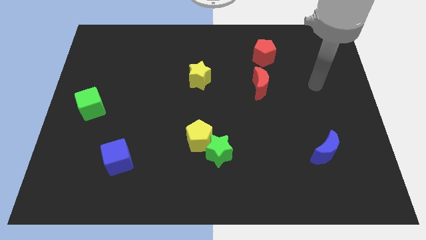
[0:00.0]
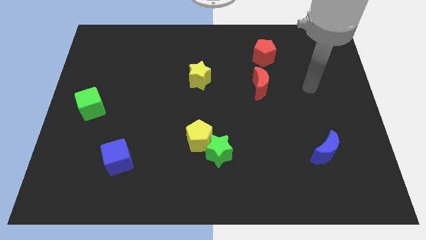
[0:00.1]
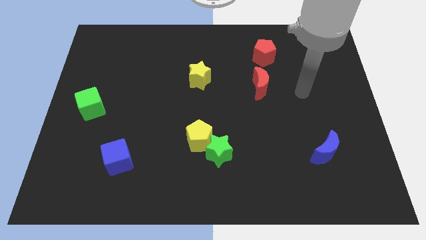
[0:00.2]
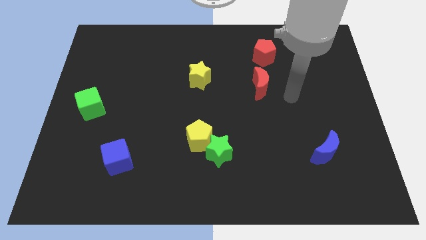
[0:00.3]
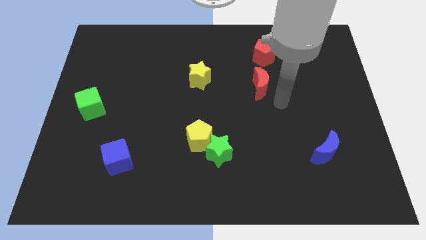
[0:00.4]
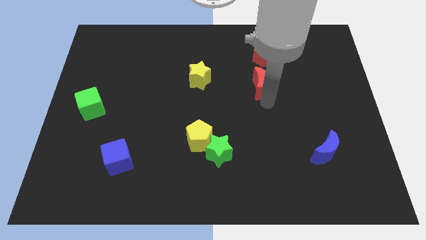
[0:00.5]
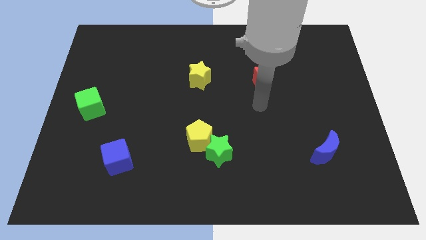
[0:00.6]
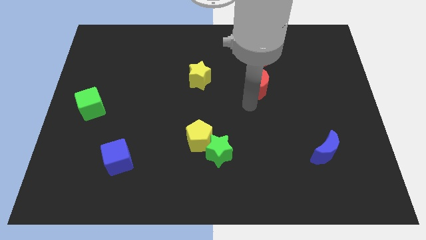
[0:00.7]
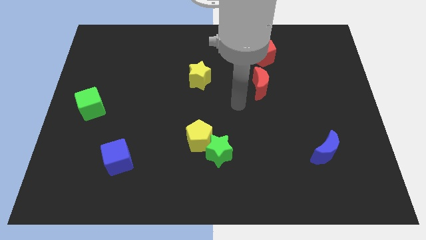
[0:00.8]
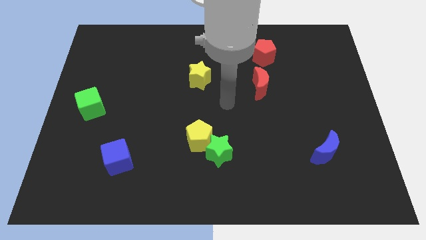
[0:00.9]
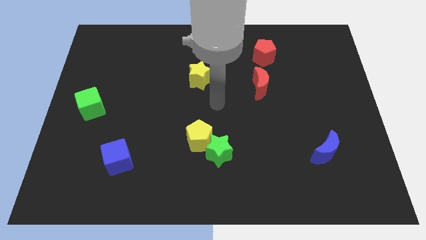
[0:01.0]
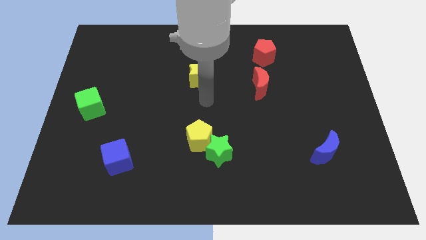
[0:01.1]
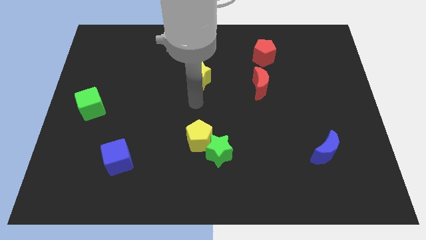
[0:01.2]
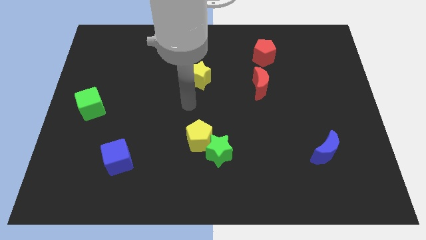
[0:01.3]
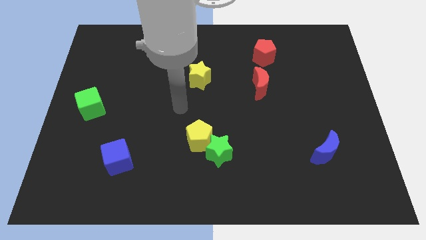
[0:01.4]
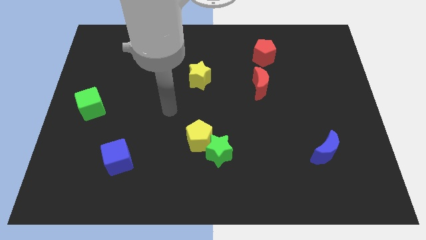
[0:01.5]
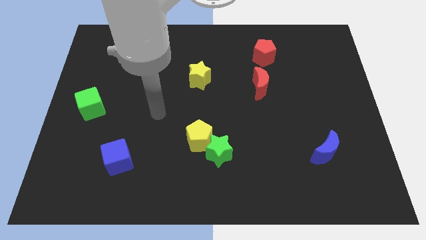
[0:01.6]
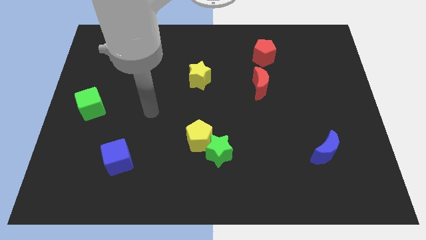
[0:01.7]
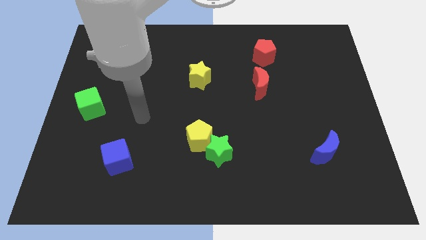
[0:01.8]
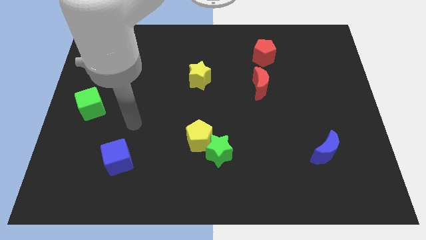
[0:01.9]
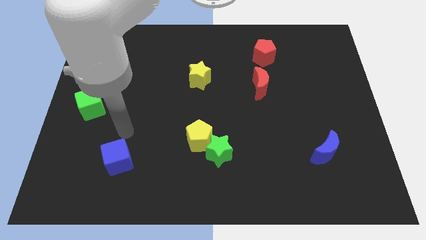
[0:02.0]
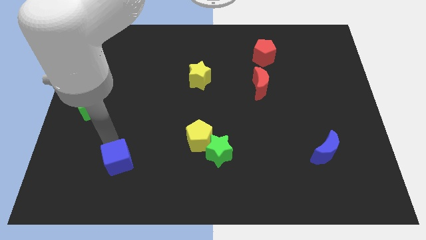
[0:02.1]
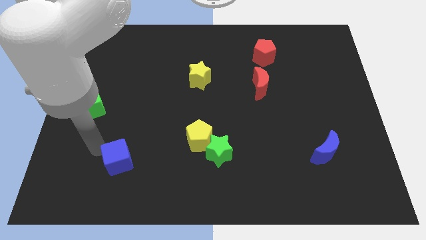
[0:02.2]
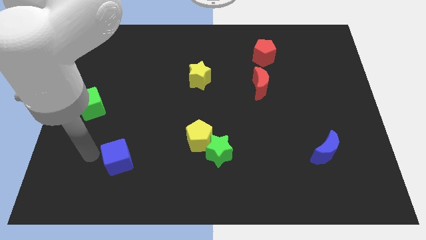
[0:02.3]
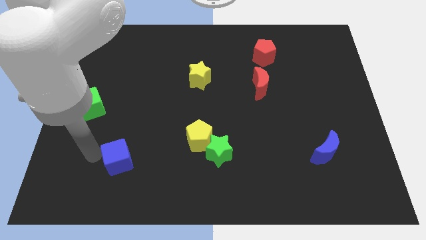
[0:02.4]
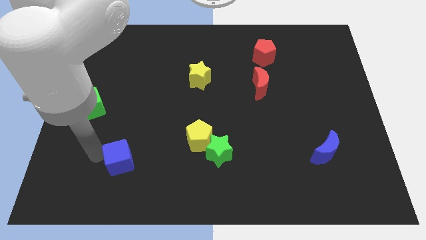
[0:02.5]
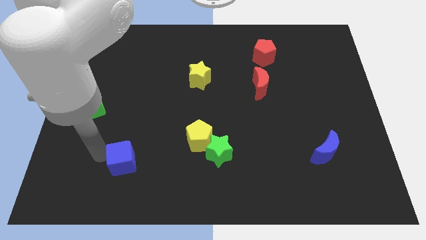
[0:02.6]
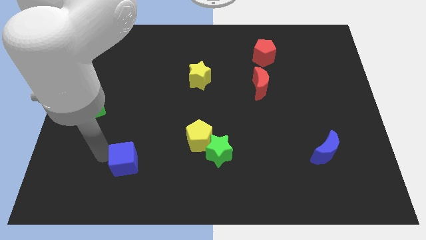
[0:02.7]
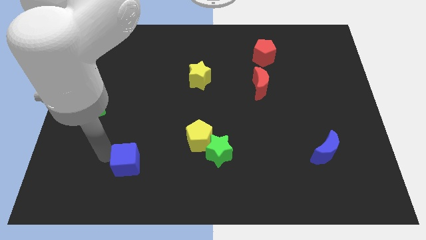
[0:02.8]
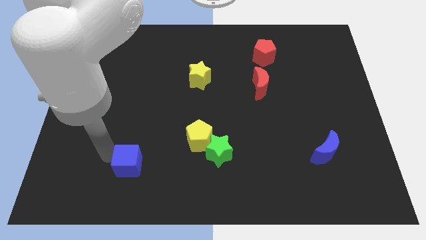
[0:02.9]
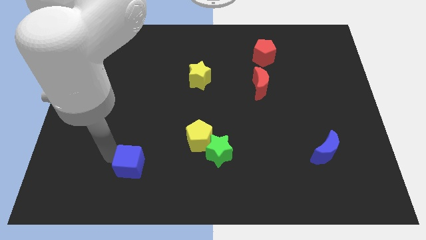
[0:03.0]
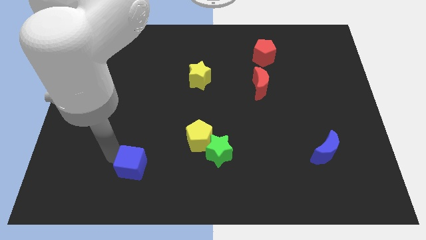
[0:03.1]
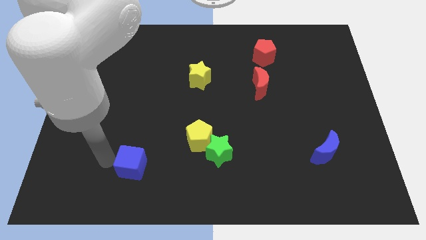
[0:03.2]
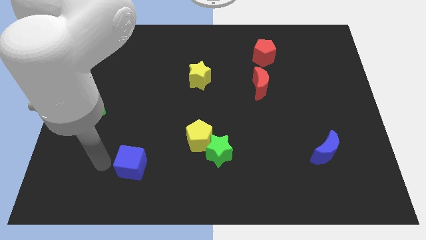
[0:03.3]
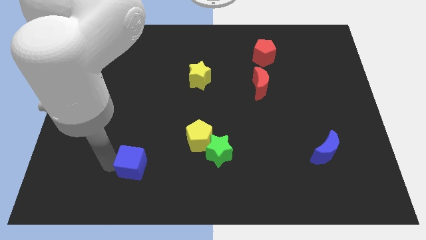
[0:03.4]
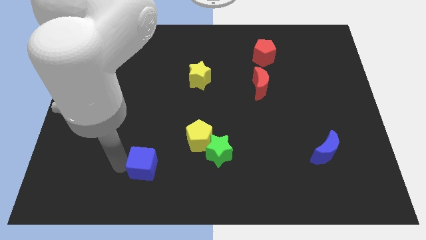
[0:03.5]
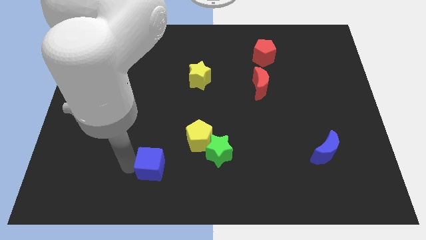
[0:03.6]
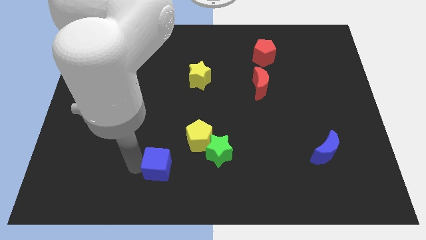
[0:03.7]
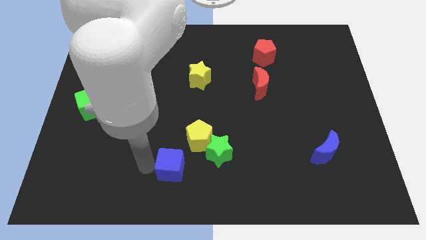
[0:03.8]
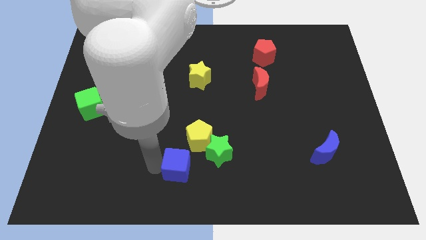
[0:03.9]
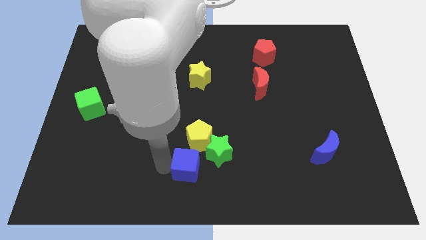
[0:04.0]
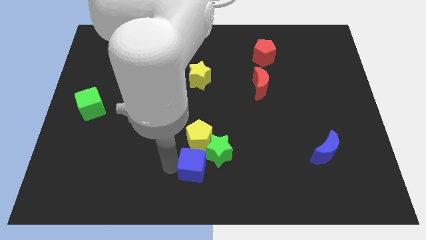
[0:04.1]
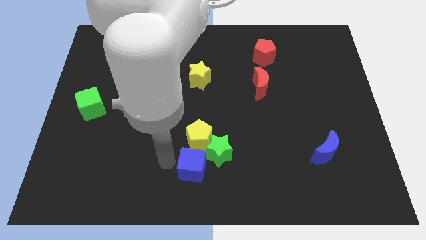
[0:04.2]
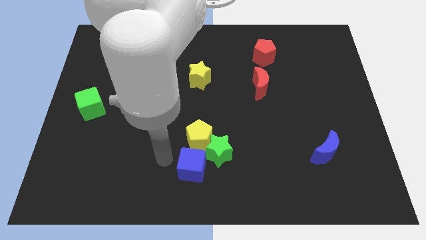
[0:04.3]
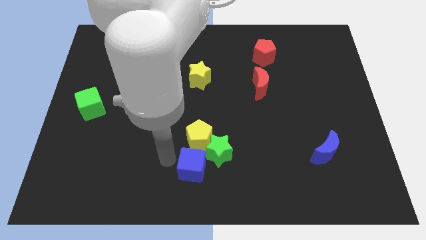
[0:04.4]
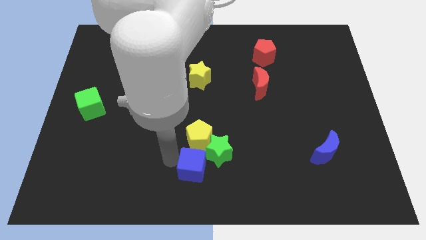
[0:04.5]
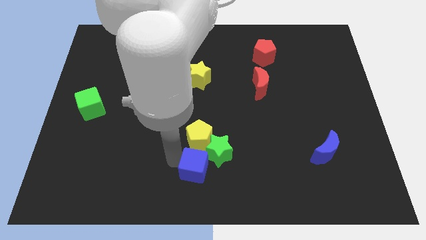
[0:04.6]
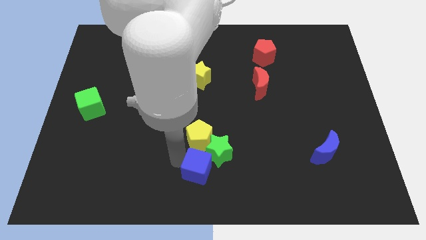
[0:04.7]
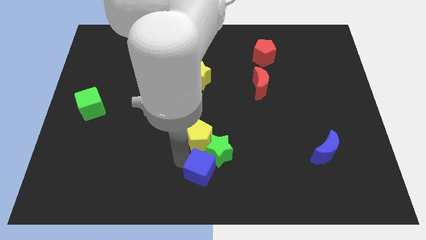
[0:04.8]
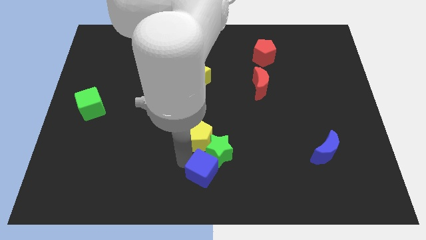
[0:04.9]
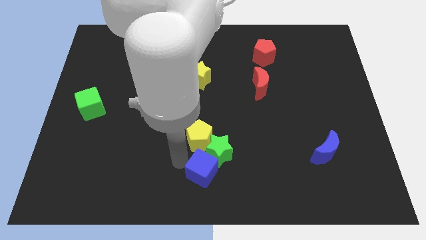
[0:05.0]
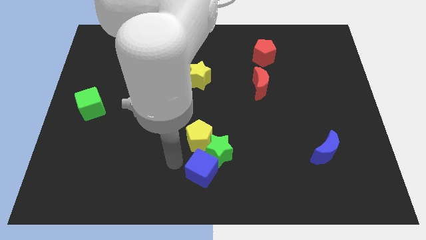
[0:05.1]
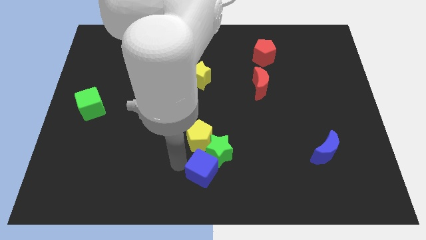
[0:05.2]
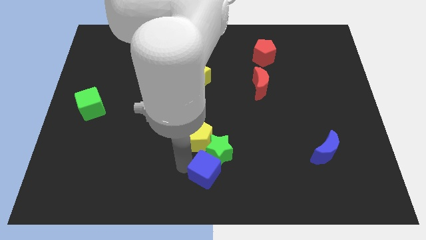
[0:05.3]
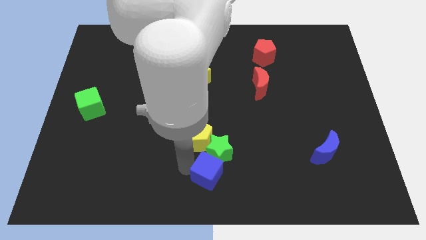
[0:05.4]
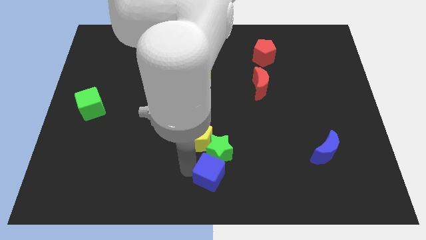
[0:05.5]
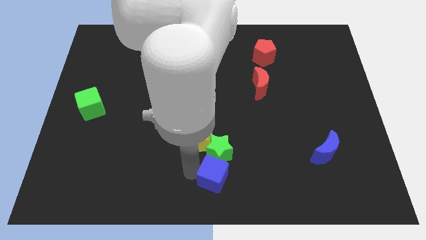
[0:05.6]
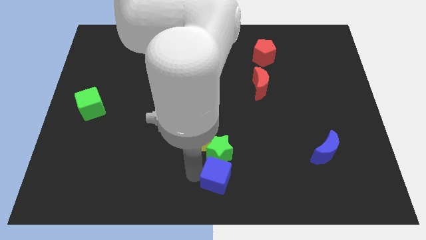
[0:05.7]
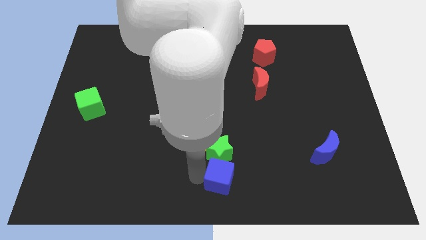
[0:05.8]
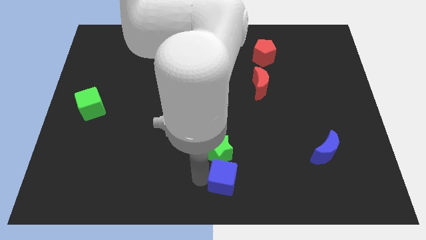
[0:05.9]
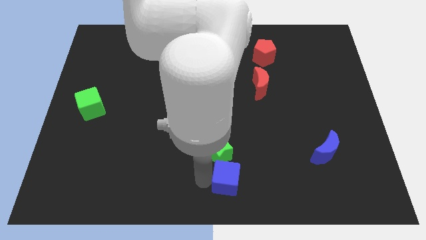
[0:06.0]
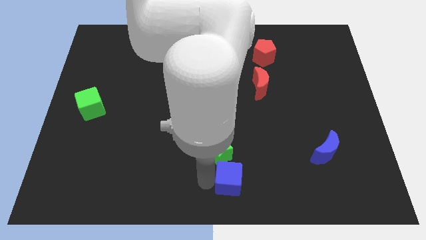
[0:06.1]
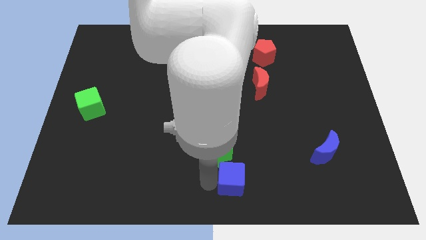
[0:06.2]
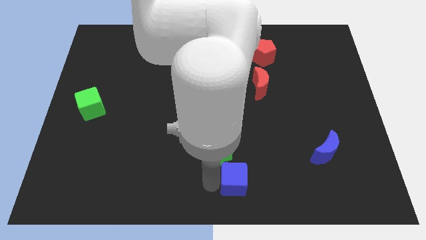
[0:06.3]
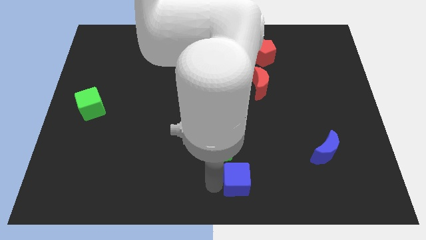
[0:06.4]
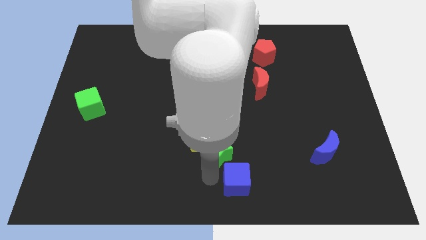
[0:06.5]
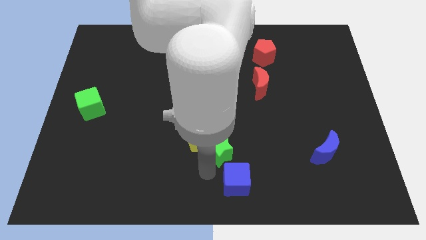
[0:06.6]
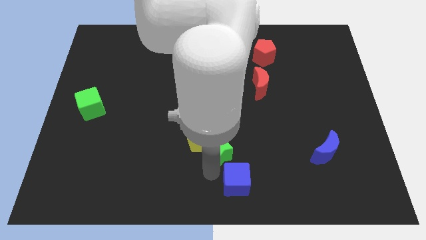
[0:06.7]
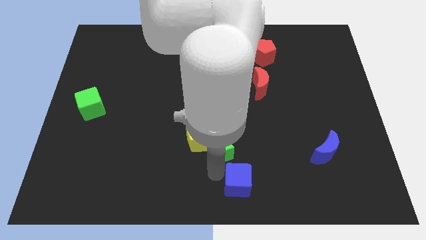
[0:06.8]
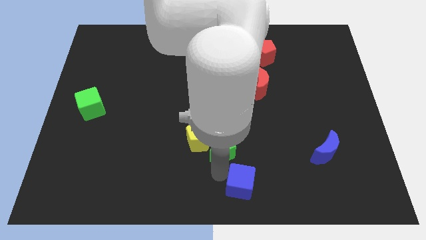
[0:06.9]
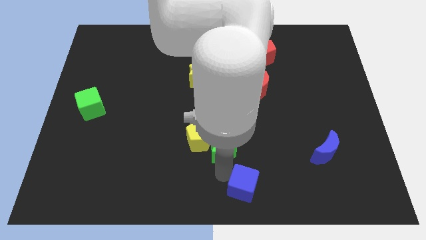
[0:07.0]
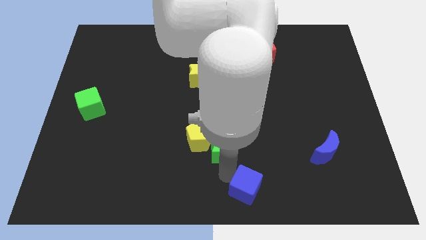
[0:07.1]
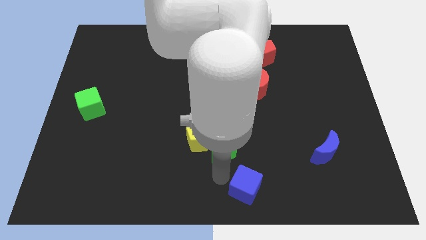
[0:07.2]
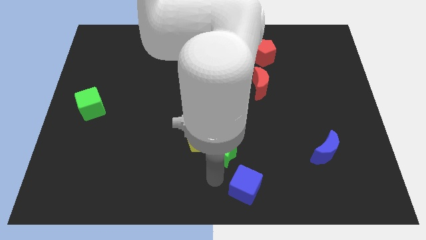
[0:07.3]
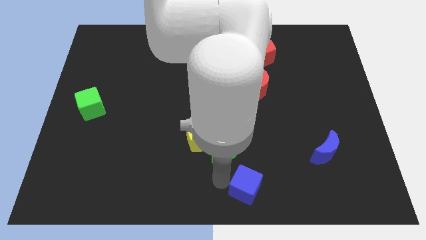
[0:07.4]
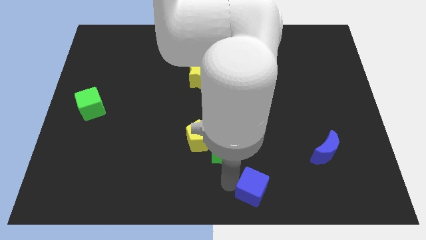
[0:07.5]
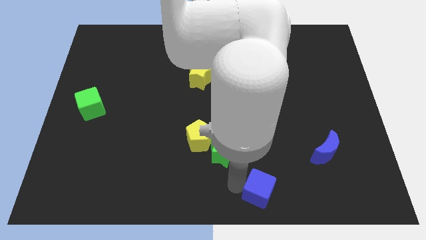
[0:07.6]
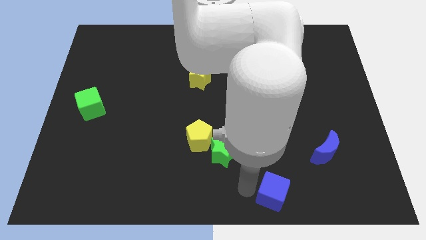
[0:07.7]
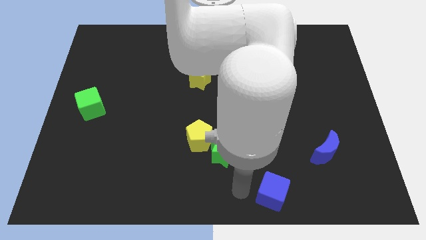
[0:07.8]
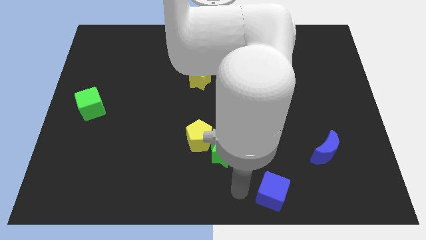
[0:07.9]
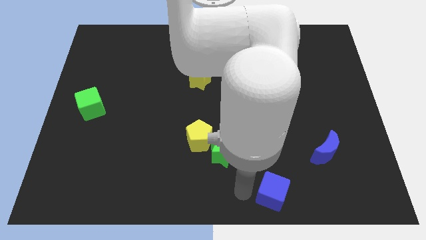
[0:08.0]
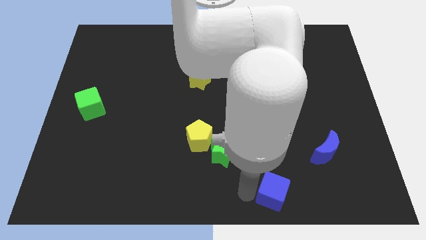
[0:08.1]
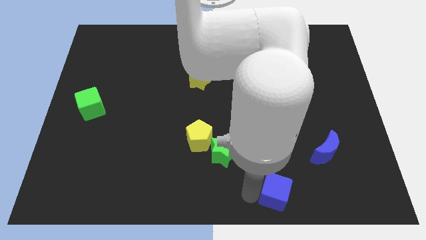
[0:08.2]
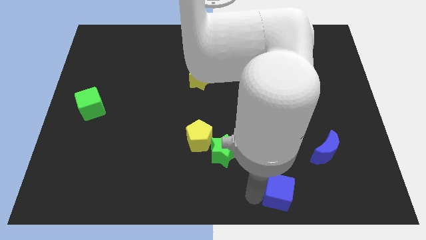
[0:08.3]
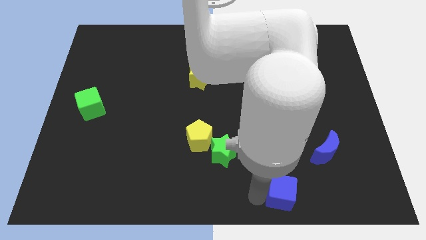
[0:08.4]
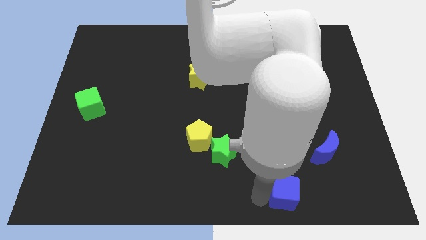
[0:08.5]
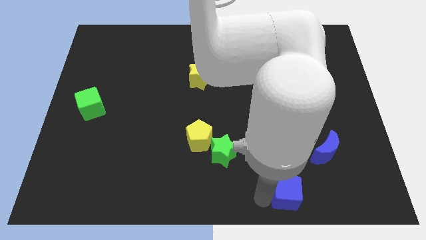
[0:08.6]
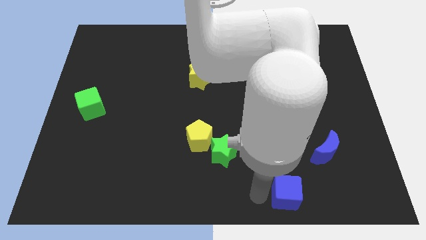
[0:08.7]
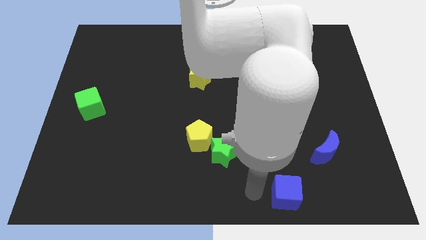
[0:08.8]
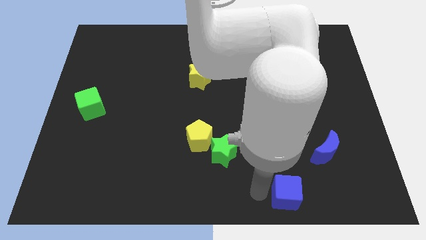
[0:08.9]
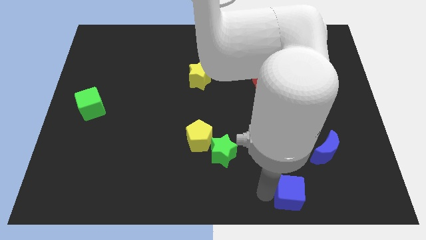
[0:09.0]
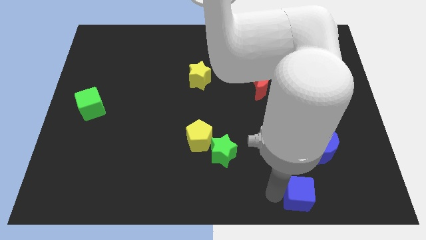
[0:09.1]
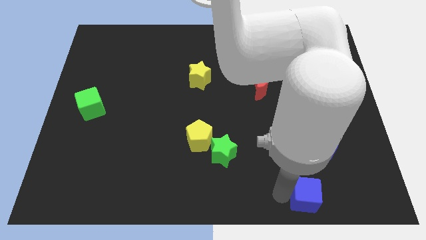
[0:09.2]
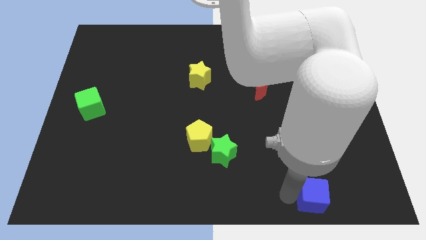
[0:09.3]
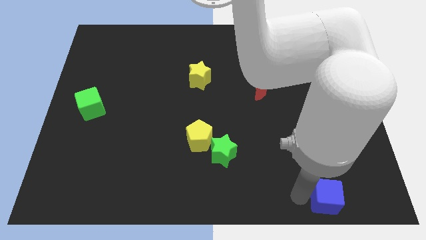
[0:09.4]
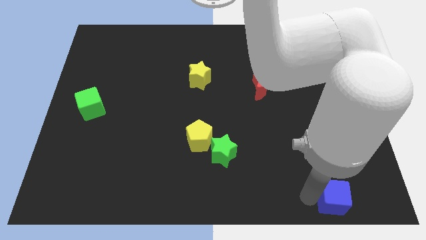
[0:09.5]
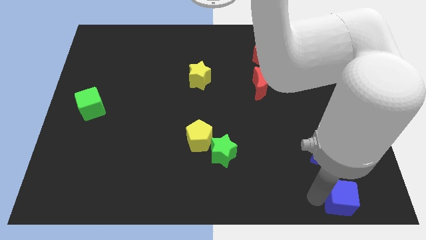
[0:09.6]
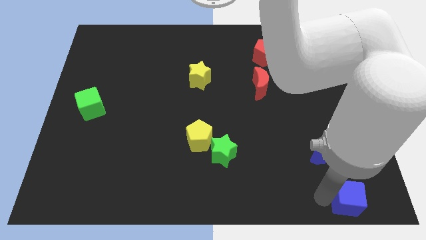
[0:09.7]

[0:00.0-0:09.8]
push the blue cube to the bottom right
